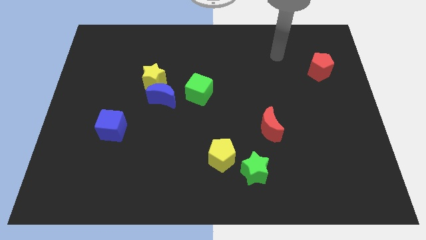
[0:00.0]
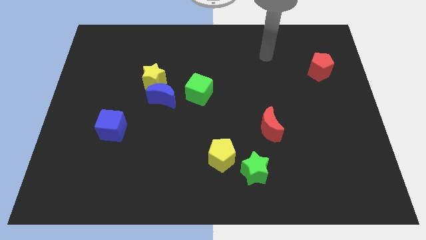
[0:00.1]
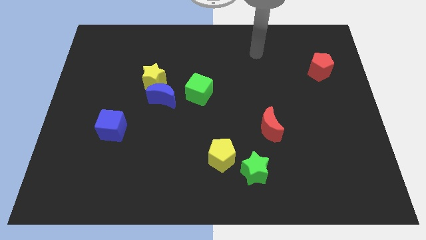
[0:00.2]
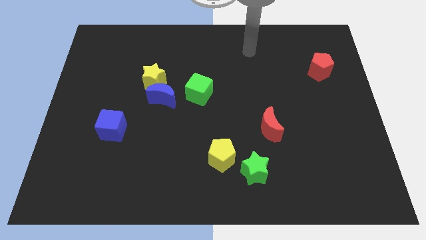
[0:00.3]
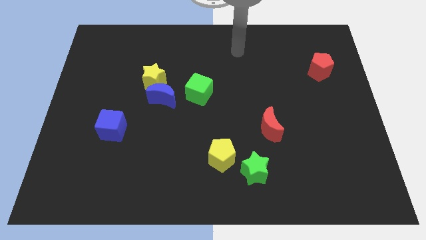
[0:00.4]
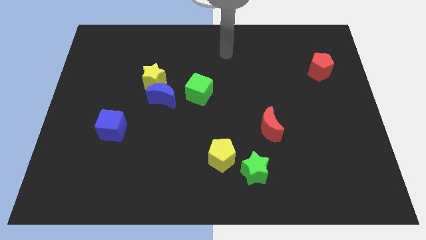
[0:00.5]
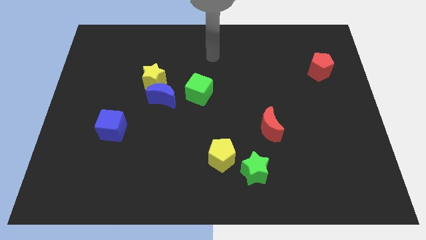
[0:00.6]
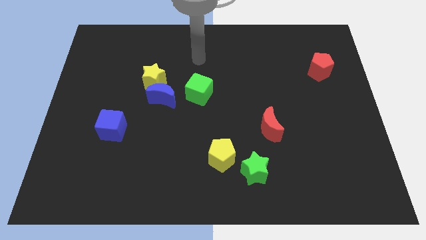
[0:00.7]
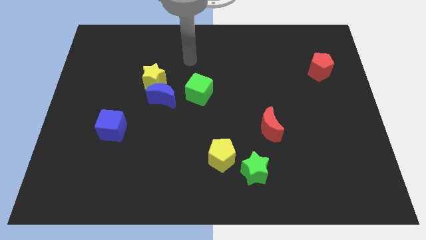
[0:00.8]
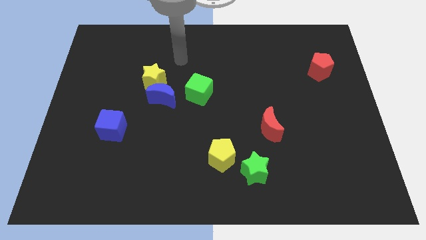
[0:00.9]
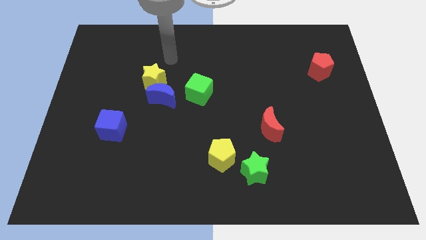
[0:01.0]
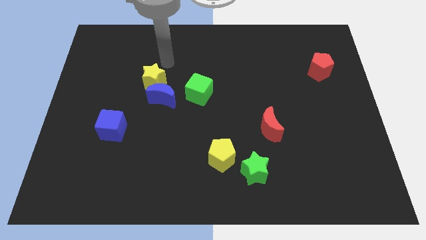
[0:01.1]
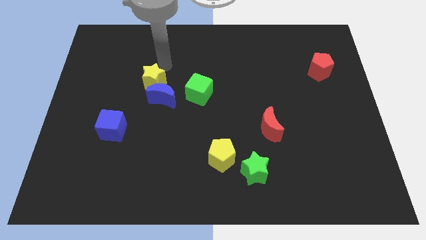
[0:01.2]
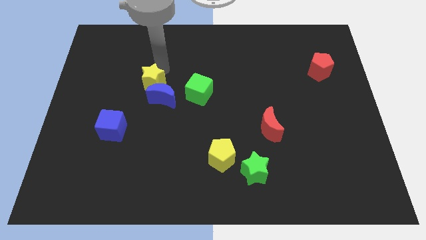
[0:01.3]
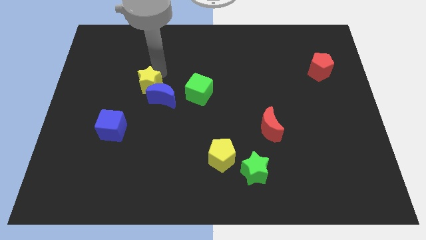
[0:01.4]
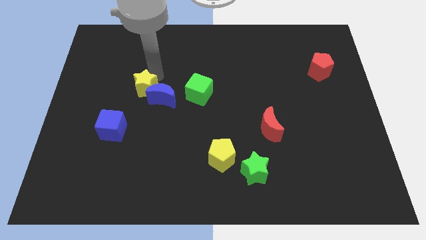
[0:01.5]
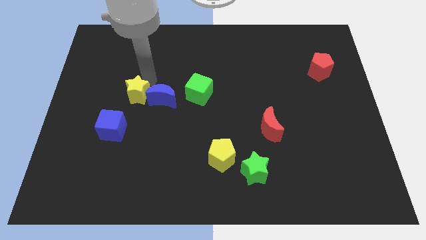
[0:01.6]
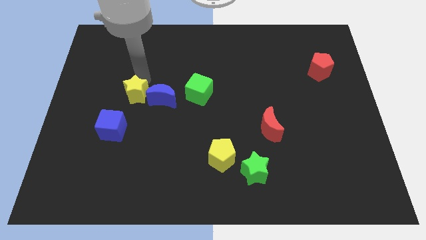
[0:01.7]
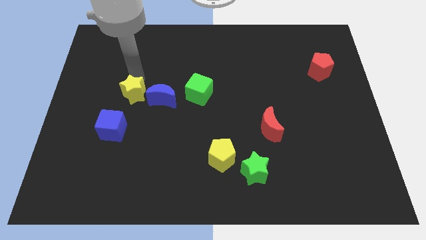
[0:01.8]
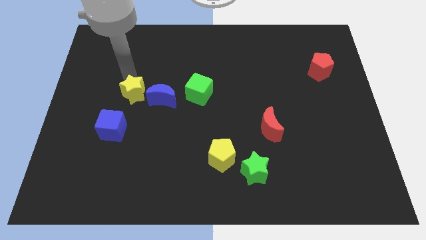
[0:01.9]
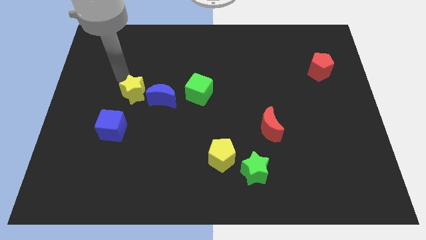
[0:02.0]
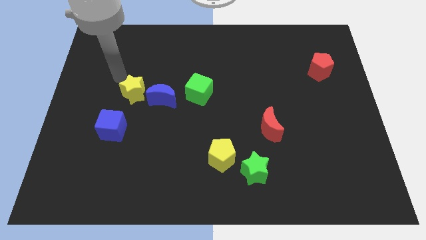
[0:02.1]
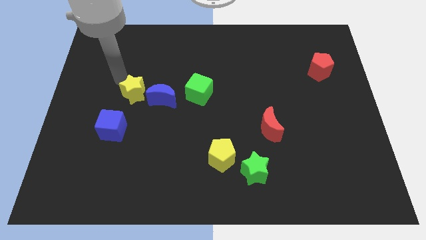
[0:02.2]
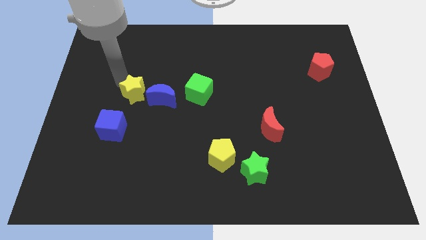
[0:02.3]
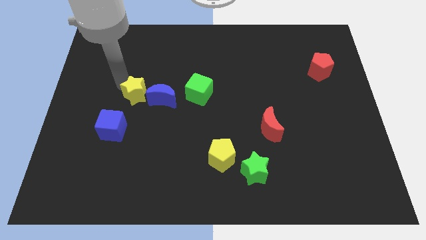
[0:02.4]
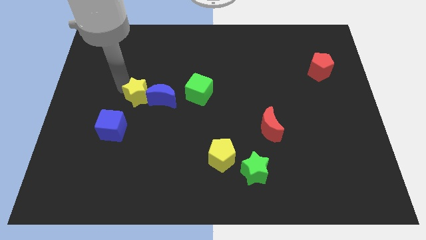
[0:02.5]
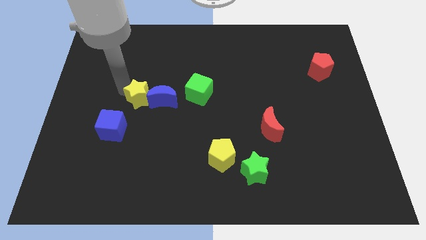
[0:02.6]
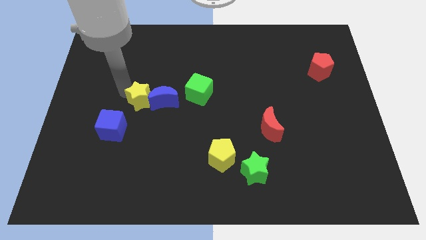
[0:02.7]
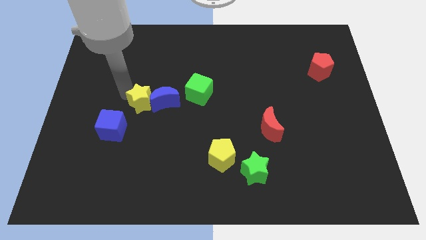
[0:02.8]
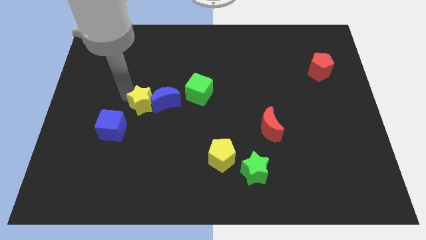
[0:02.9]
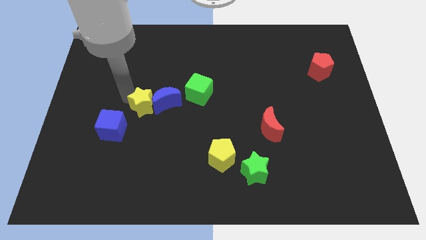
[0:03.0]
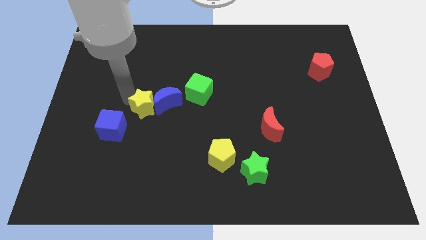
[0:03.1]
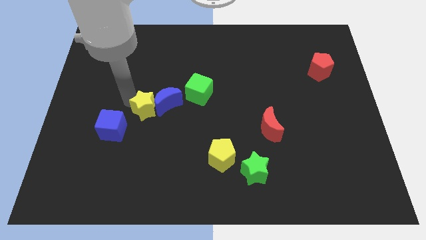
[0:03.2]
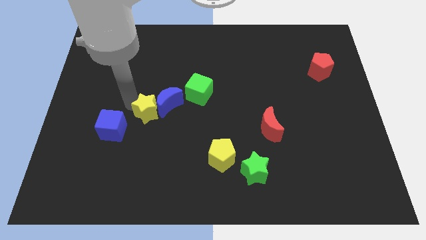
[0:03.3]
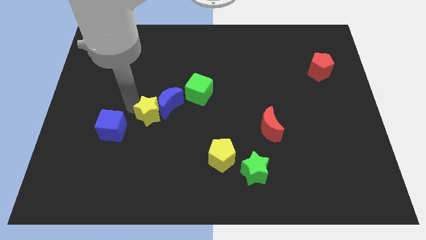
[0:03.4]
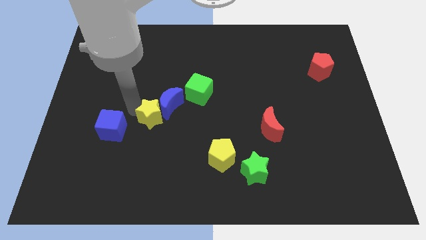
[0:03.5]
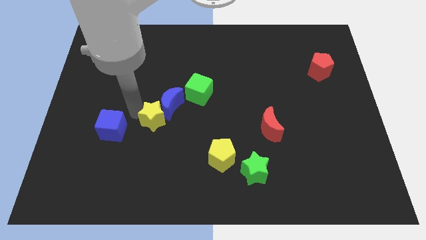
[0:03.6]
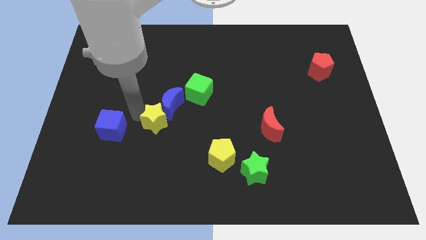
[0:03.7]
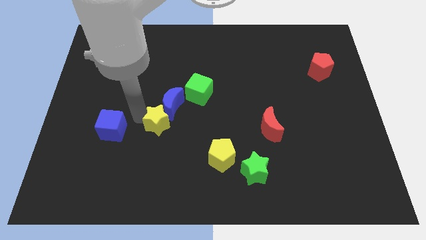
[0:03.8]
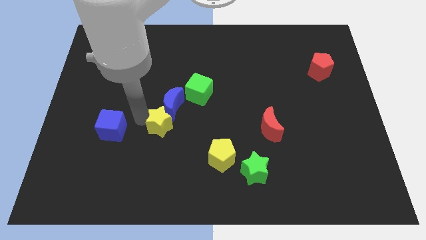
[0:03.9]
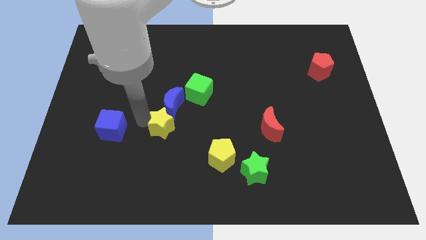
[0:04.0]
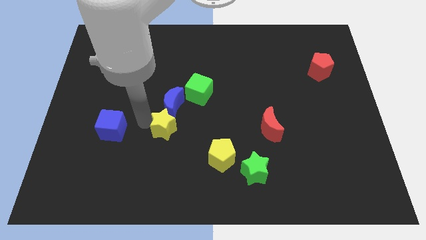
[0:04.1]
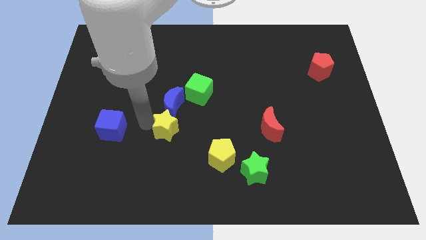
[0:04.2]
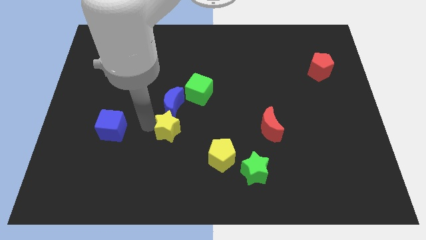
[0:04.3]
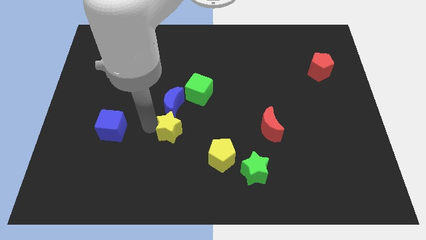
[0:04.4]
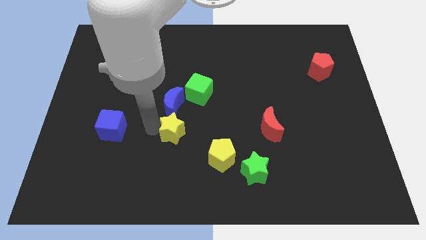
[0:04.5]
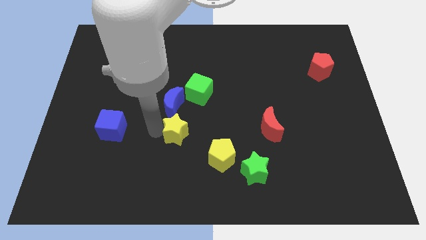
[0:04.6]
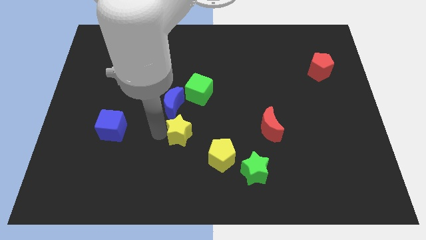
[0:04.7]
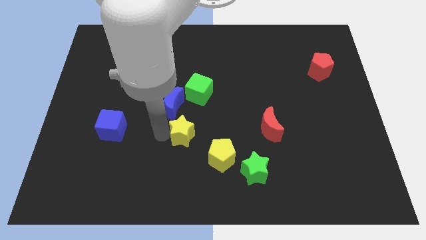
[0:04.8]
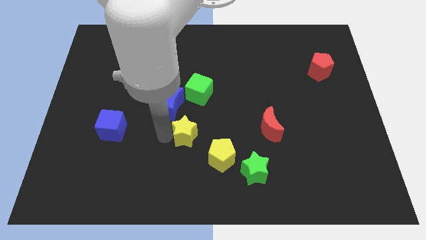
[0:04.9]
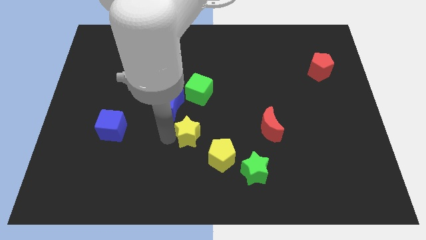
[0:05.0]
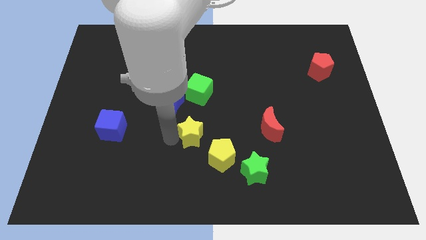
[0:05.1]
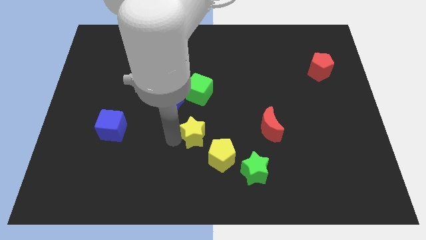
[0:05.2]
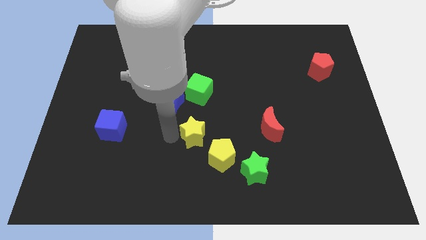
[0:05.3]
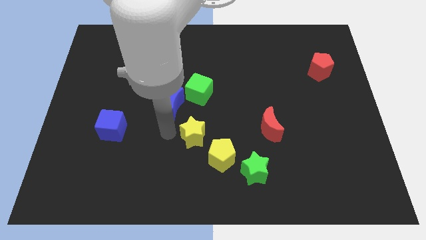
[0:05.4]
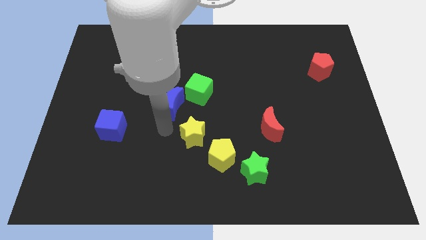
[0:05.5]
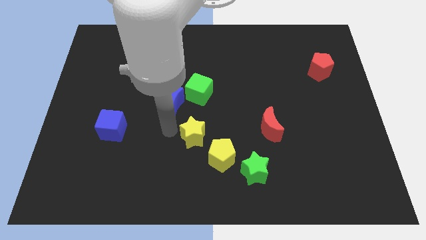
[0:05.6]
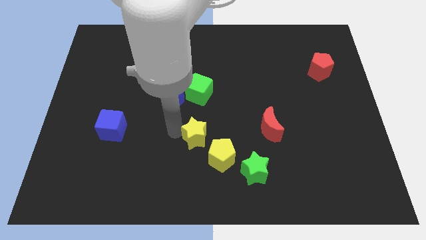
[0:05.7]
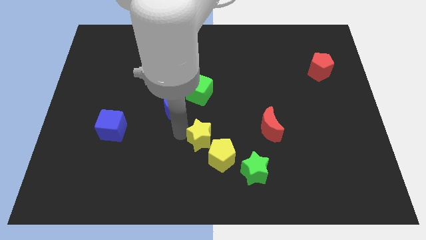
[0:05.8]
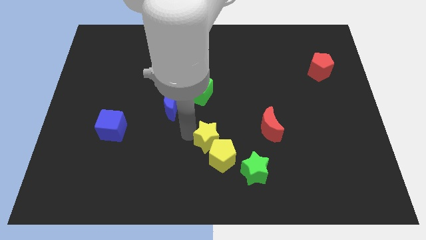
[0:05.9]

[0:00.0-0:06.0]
slide the yellow star towards the yellow pentagon
